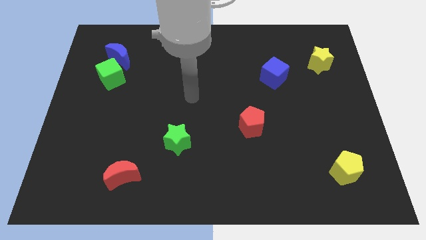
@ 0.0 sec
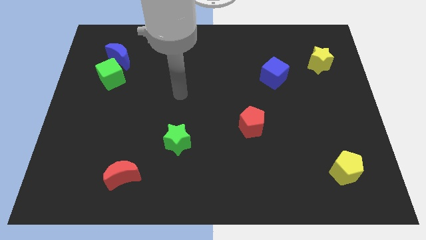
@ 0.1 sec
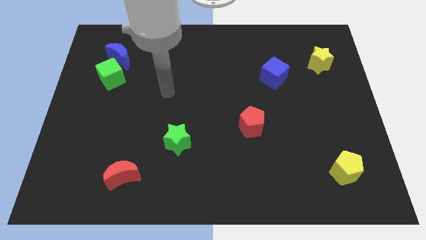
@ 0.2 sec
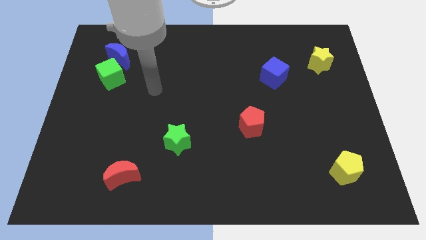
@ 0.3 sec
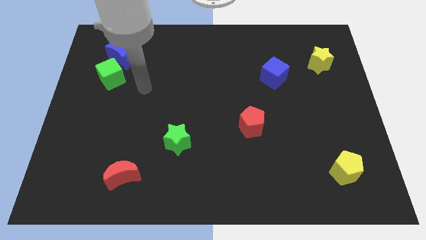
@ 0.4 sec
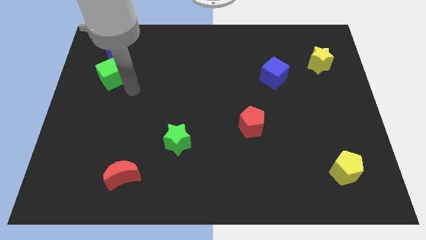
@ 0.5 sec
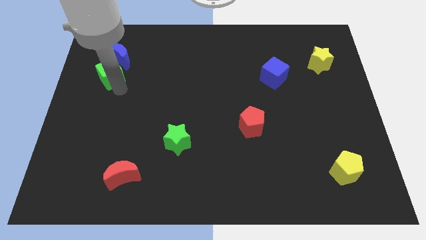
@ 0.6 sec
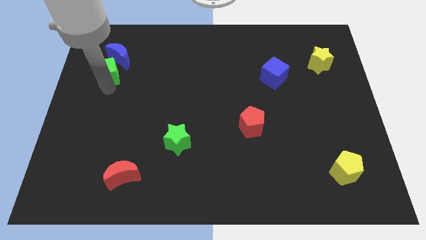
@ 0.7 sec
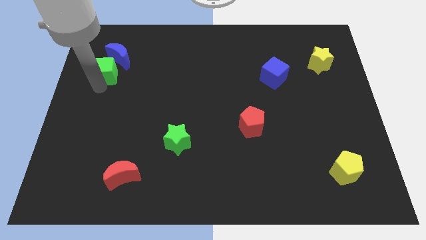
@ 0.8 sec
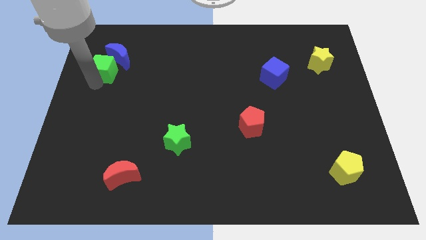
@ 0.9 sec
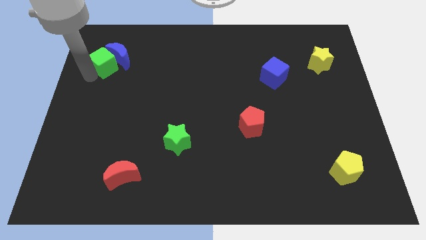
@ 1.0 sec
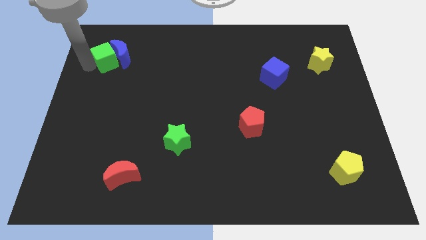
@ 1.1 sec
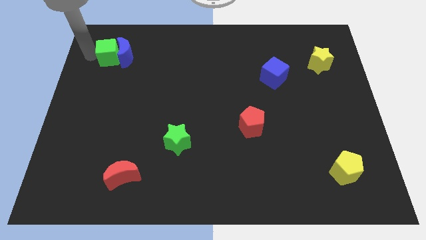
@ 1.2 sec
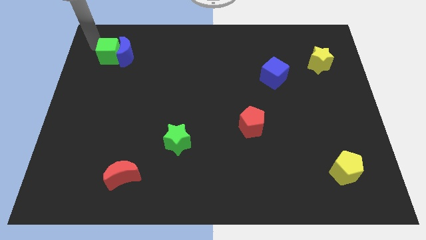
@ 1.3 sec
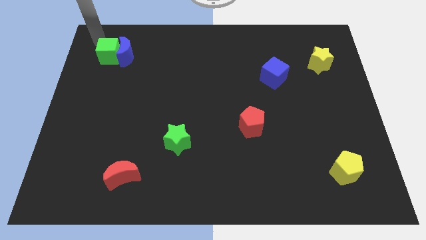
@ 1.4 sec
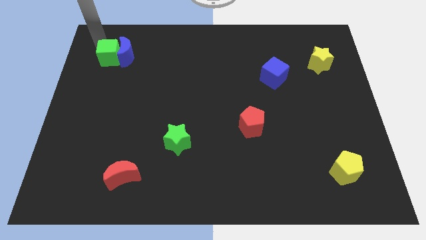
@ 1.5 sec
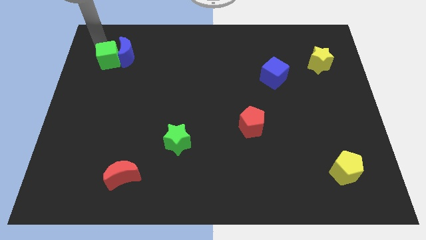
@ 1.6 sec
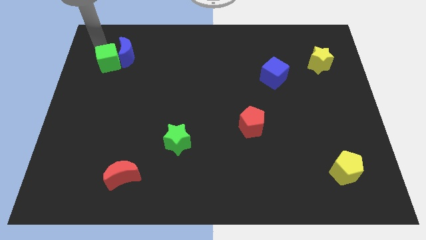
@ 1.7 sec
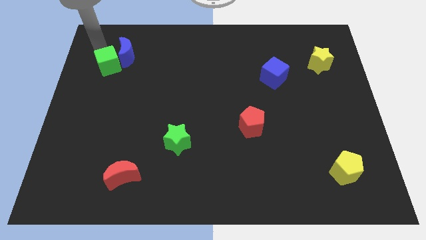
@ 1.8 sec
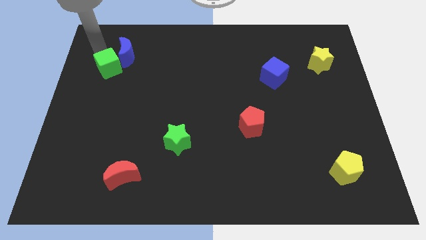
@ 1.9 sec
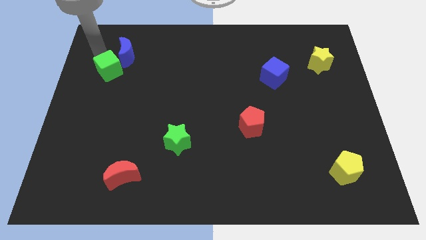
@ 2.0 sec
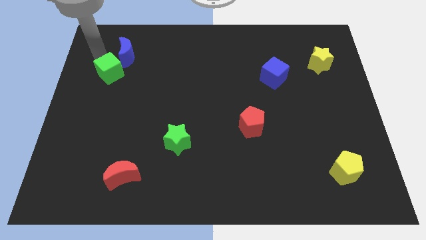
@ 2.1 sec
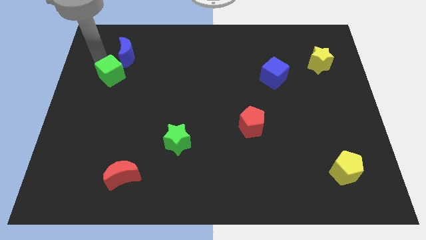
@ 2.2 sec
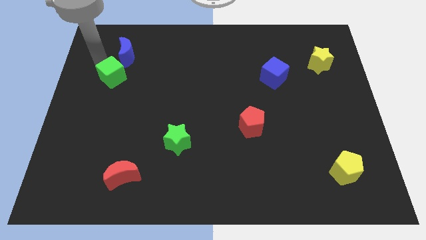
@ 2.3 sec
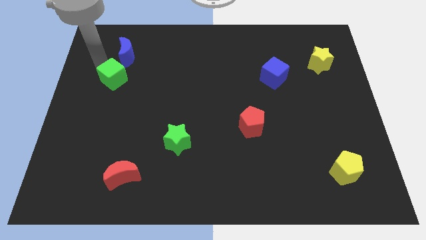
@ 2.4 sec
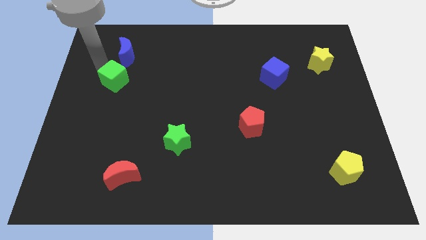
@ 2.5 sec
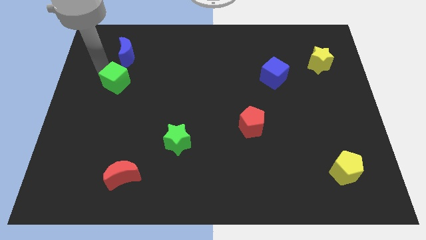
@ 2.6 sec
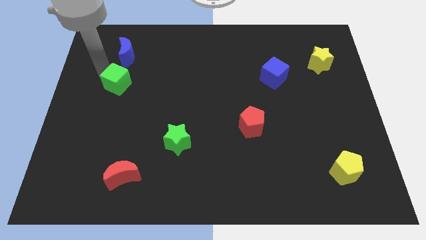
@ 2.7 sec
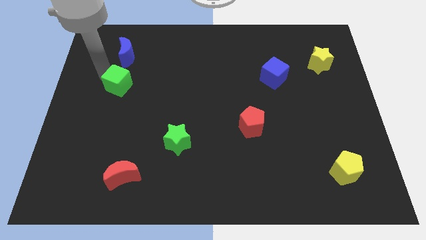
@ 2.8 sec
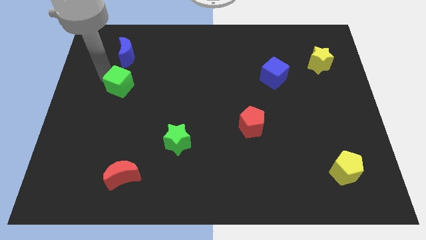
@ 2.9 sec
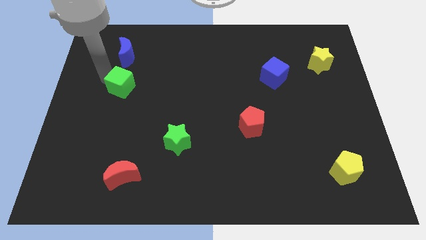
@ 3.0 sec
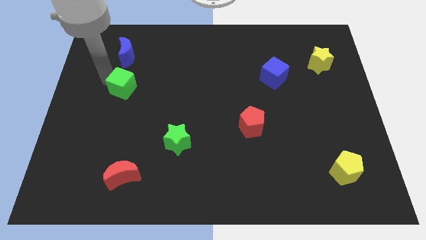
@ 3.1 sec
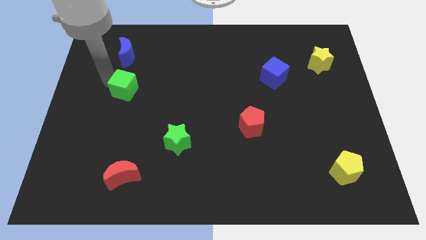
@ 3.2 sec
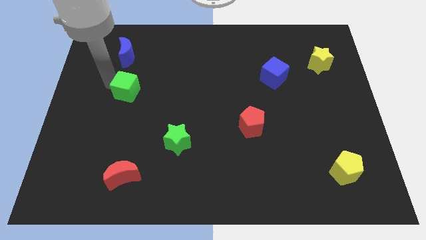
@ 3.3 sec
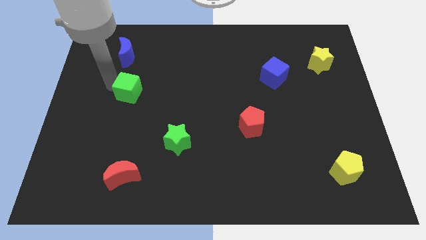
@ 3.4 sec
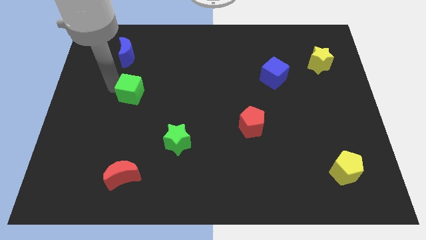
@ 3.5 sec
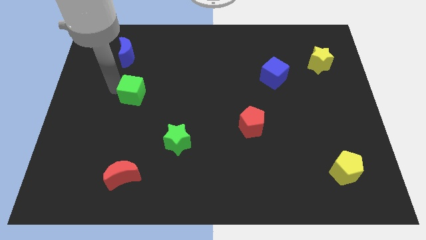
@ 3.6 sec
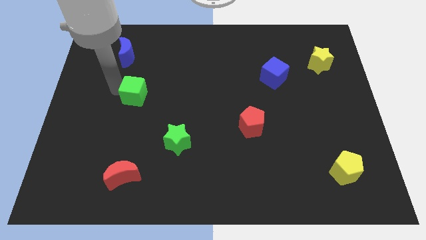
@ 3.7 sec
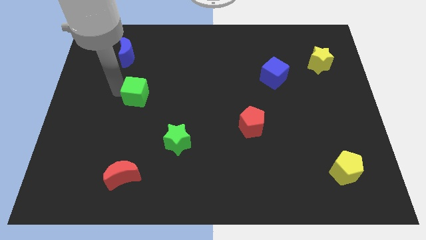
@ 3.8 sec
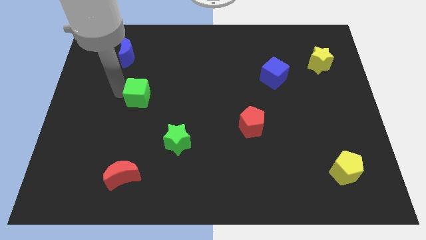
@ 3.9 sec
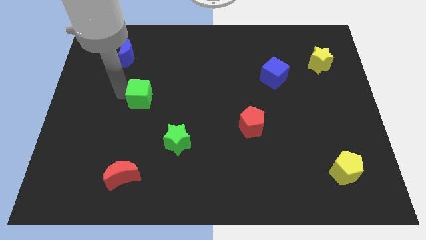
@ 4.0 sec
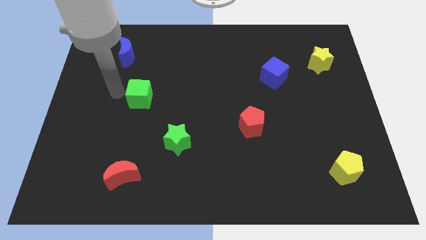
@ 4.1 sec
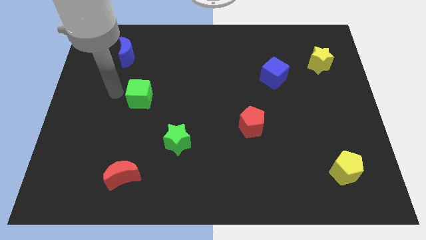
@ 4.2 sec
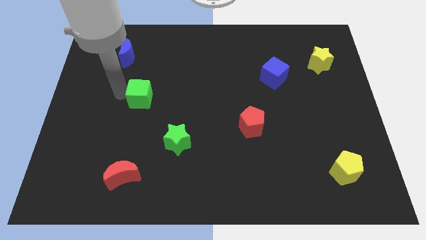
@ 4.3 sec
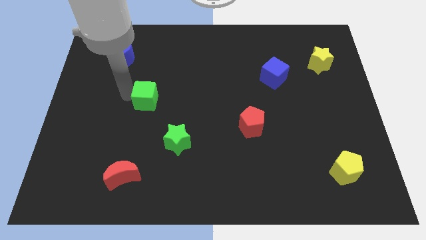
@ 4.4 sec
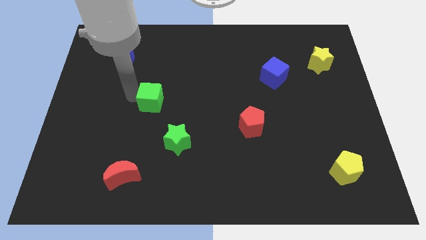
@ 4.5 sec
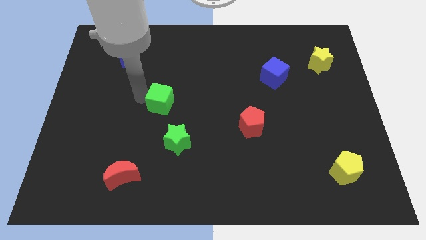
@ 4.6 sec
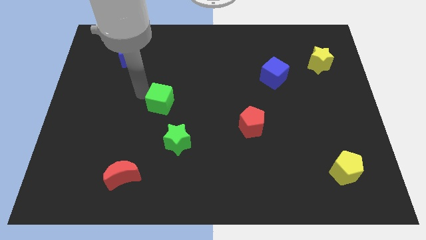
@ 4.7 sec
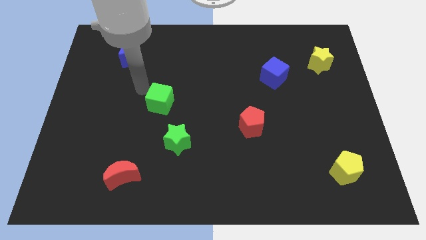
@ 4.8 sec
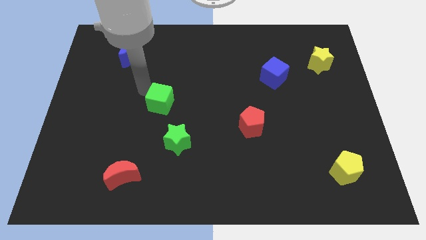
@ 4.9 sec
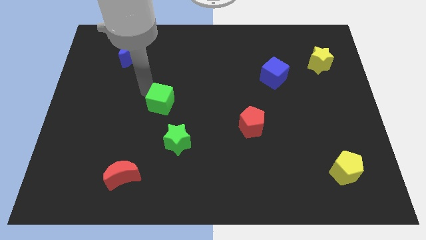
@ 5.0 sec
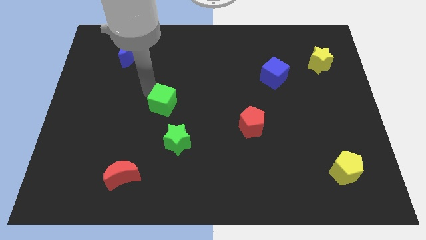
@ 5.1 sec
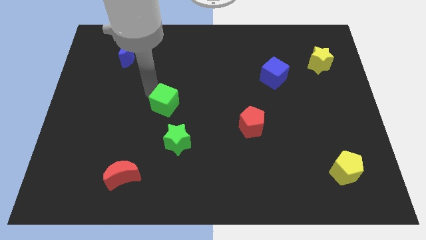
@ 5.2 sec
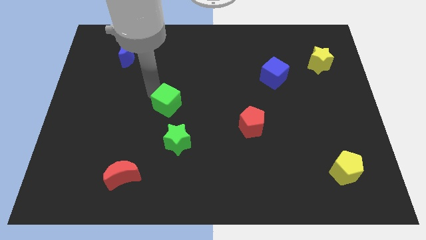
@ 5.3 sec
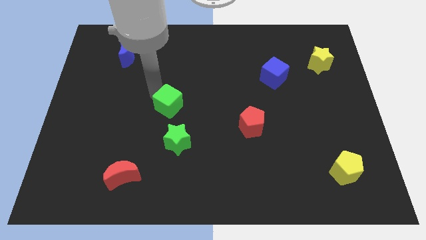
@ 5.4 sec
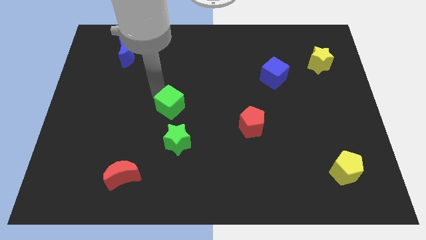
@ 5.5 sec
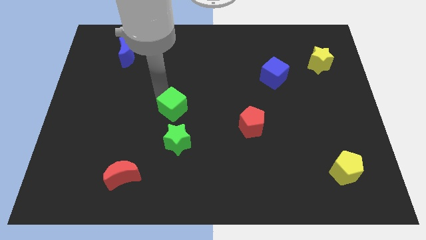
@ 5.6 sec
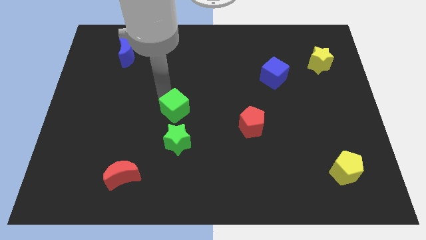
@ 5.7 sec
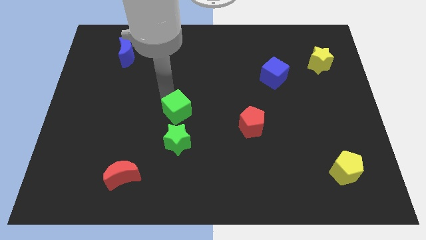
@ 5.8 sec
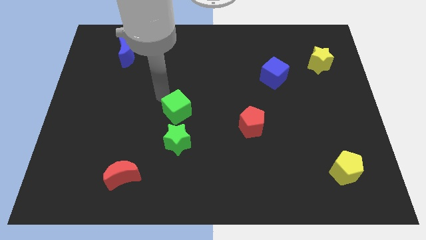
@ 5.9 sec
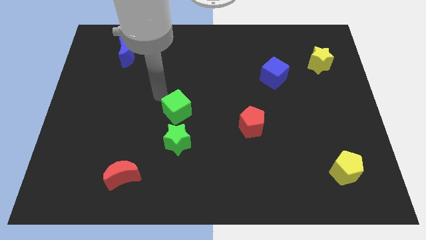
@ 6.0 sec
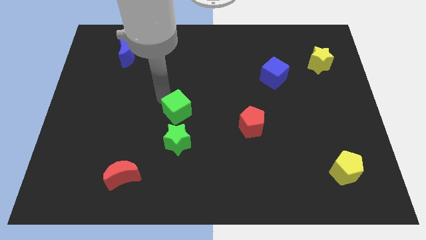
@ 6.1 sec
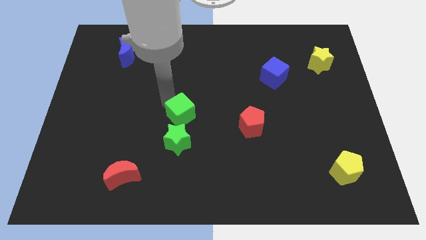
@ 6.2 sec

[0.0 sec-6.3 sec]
move the green cube down and then right

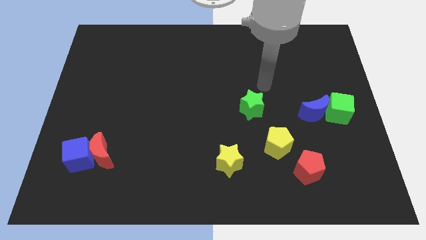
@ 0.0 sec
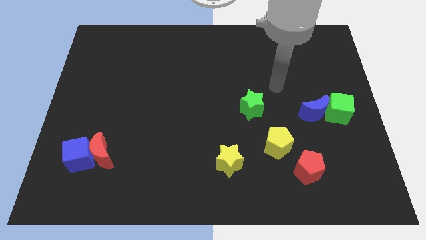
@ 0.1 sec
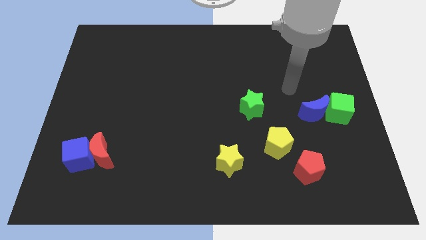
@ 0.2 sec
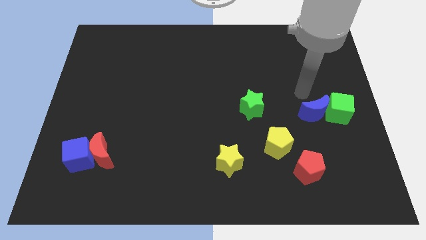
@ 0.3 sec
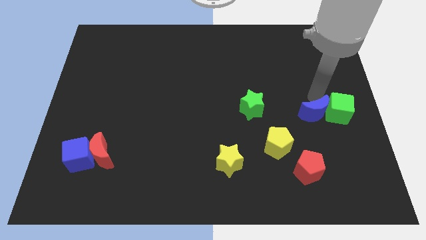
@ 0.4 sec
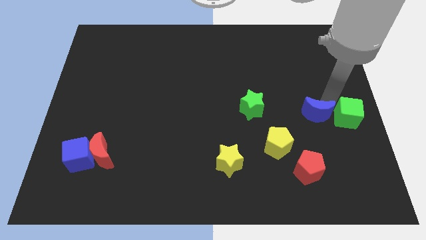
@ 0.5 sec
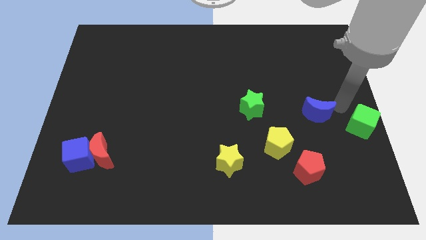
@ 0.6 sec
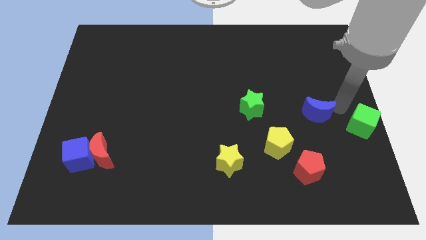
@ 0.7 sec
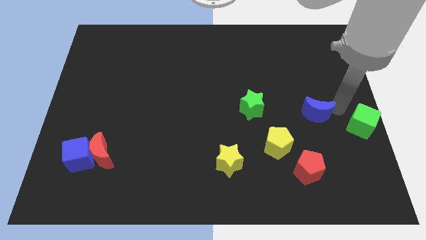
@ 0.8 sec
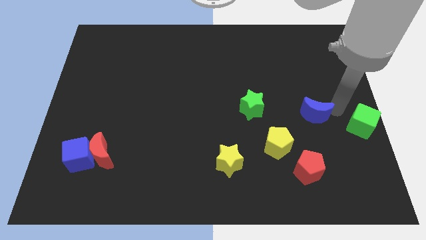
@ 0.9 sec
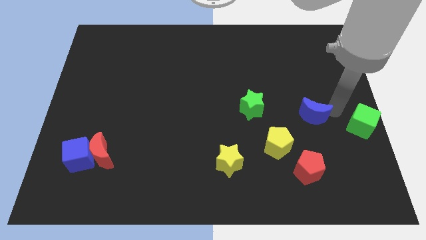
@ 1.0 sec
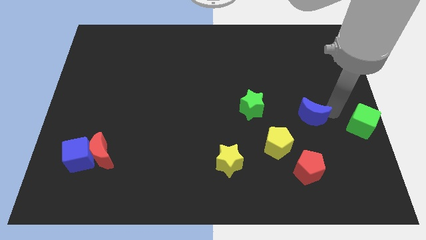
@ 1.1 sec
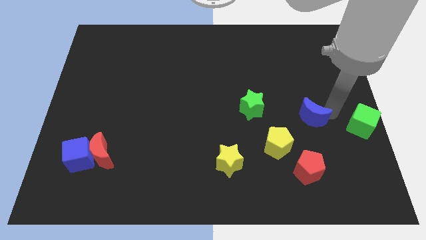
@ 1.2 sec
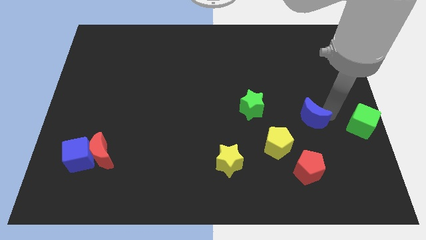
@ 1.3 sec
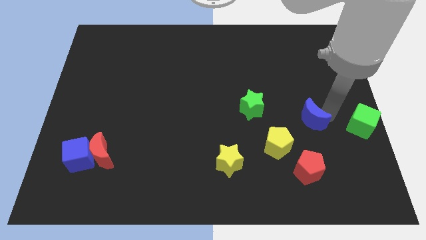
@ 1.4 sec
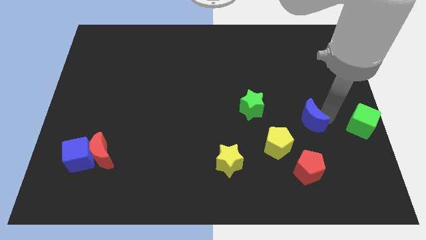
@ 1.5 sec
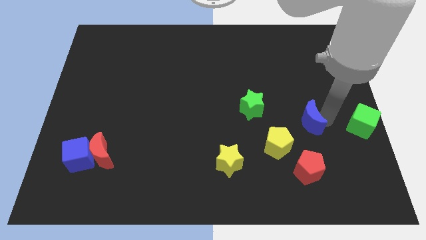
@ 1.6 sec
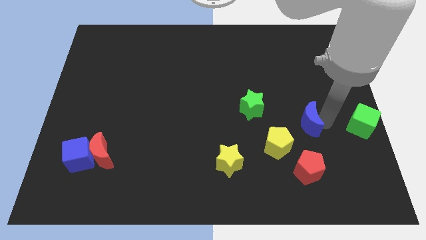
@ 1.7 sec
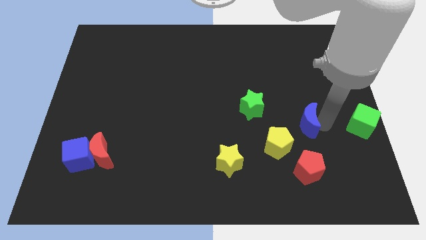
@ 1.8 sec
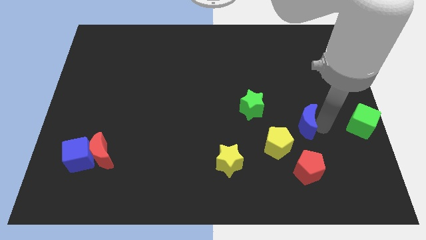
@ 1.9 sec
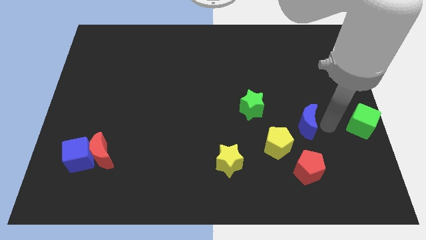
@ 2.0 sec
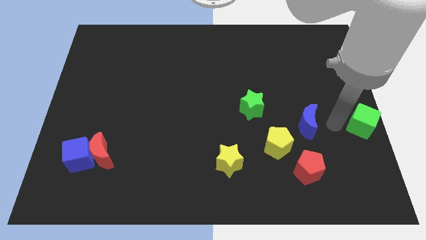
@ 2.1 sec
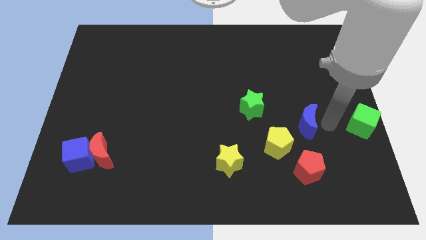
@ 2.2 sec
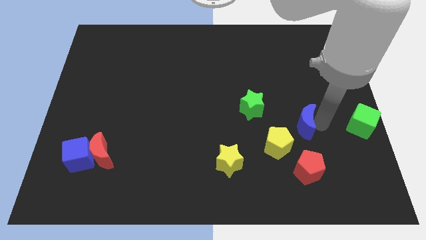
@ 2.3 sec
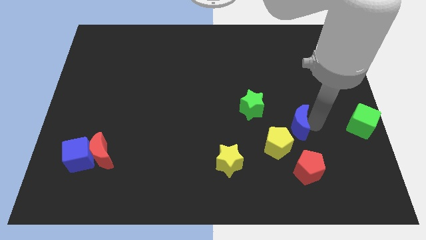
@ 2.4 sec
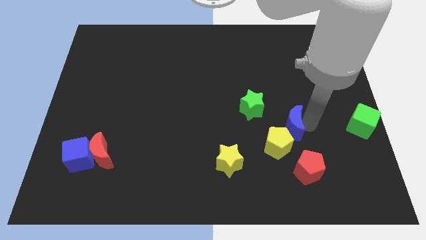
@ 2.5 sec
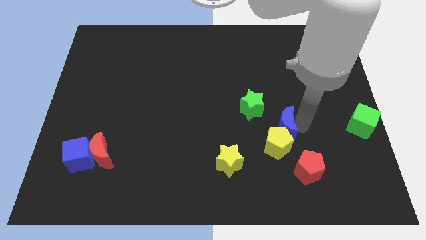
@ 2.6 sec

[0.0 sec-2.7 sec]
slightly slide the blue moon to the left
